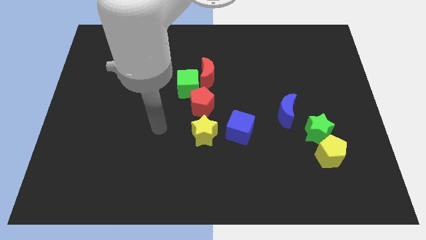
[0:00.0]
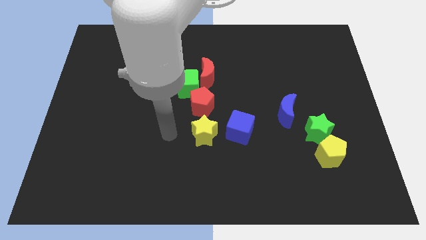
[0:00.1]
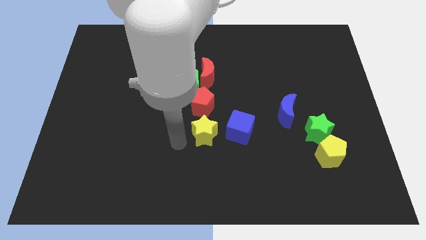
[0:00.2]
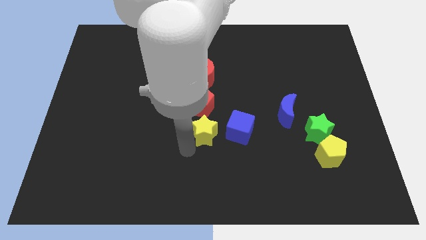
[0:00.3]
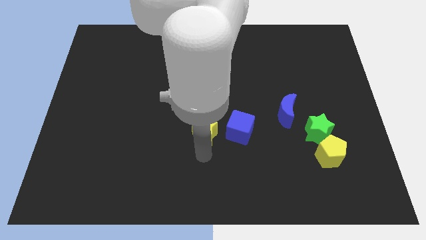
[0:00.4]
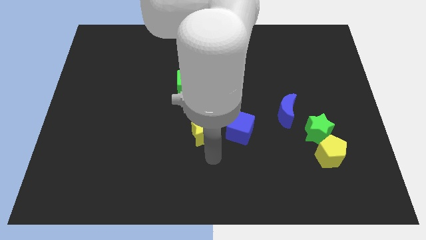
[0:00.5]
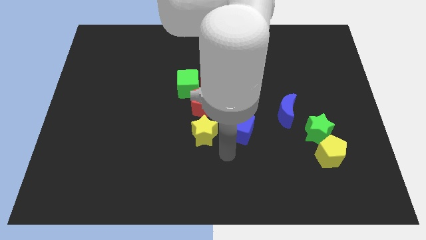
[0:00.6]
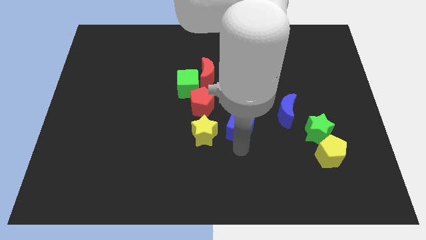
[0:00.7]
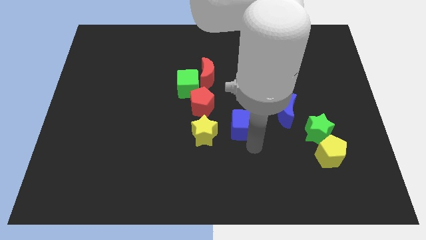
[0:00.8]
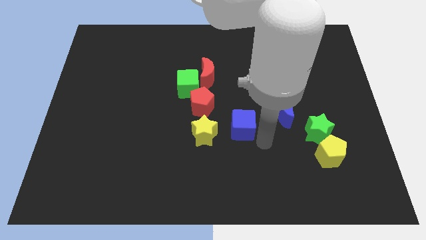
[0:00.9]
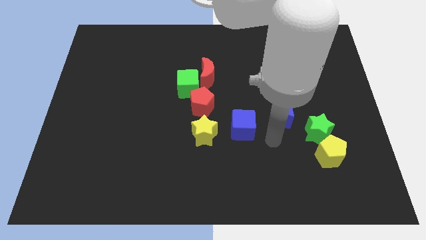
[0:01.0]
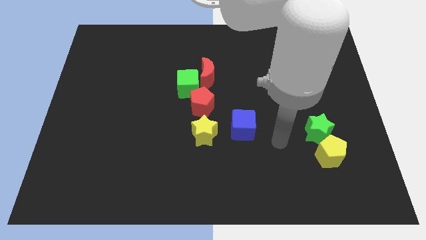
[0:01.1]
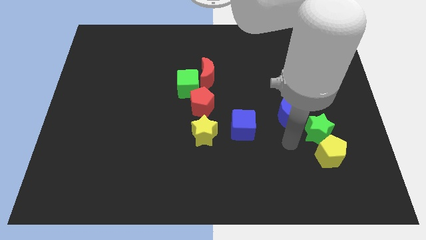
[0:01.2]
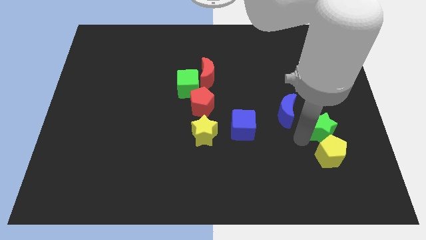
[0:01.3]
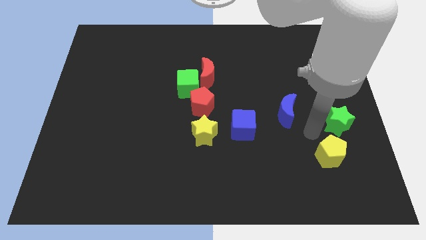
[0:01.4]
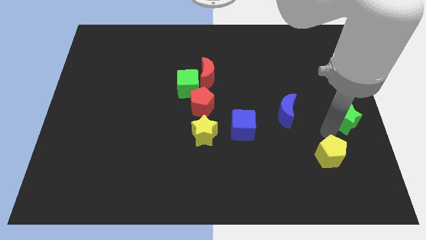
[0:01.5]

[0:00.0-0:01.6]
pull the yellow pentagon apart from the green star

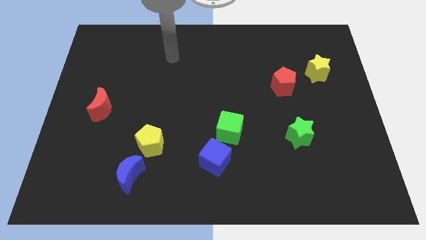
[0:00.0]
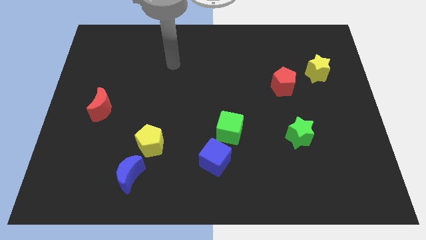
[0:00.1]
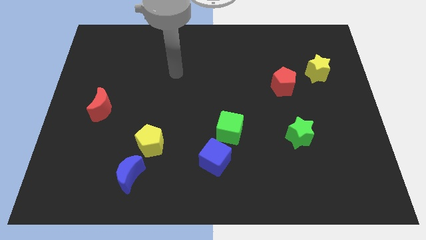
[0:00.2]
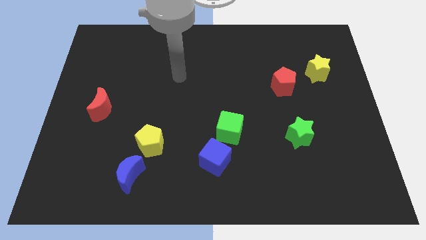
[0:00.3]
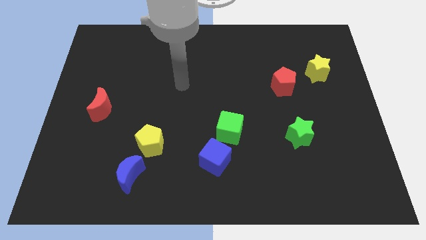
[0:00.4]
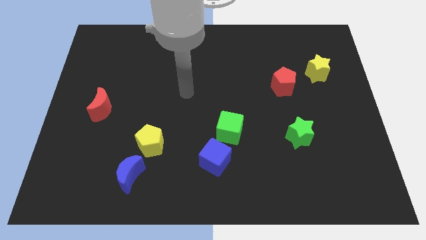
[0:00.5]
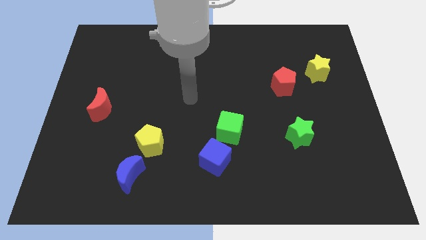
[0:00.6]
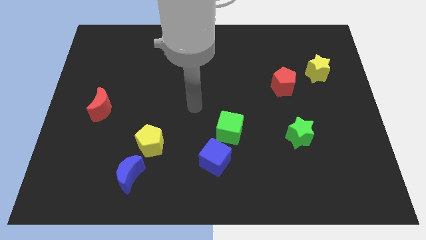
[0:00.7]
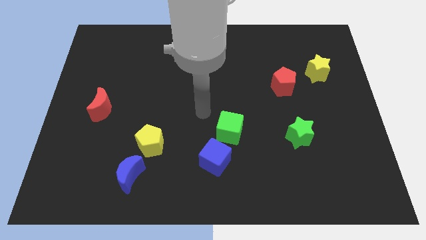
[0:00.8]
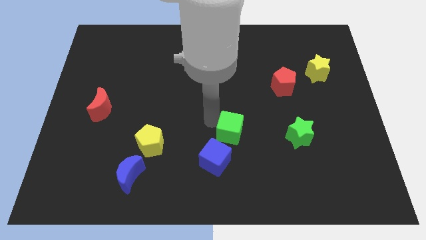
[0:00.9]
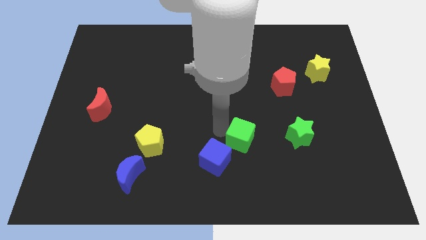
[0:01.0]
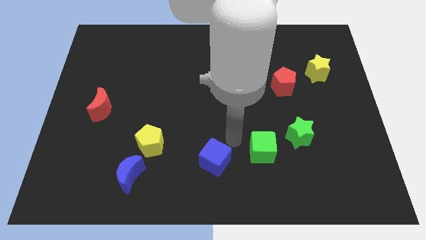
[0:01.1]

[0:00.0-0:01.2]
separate the blue cube from the green cube

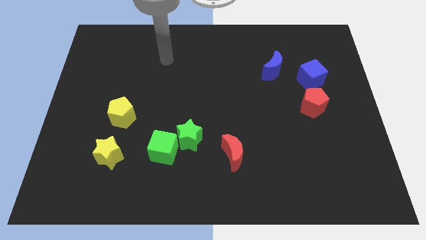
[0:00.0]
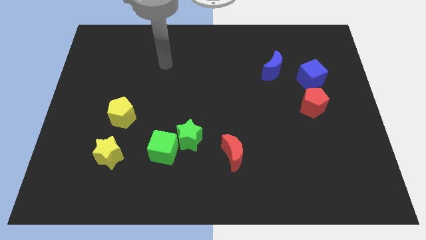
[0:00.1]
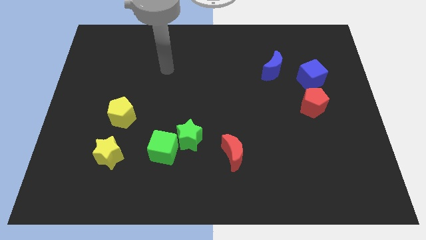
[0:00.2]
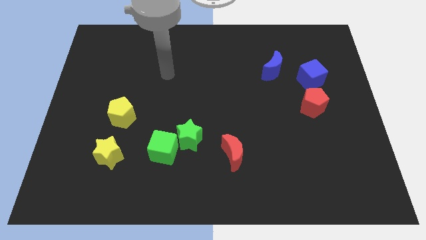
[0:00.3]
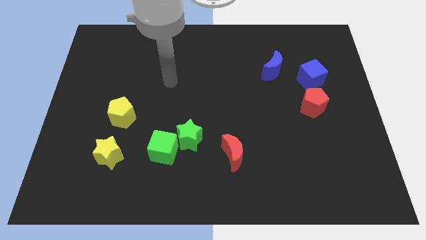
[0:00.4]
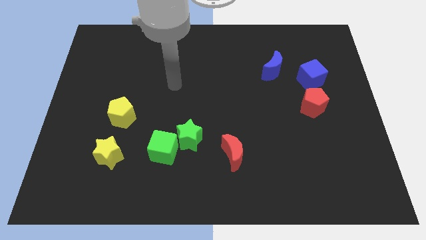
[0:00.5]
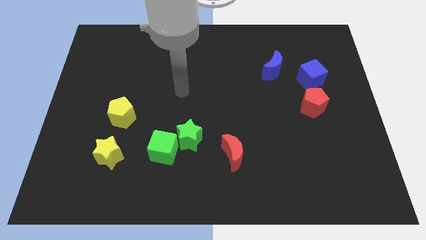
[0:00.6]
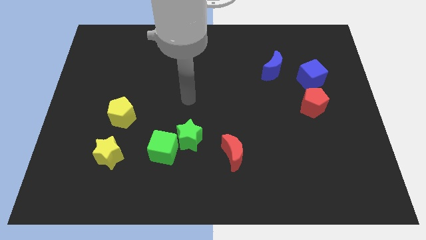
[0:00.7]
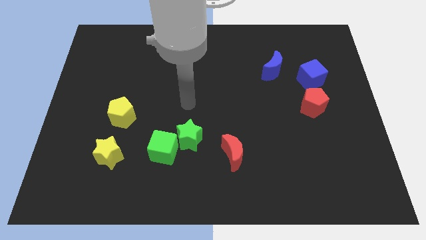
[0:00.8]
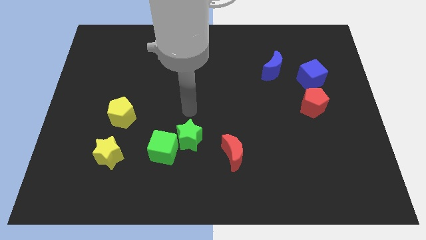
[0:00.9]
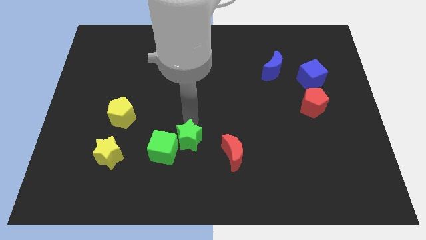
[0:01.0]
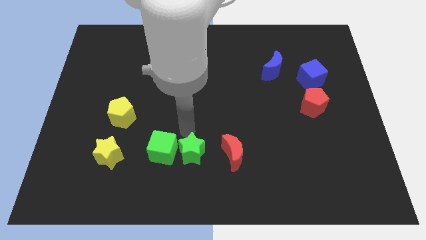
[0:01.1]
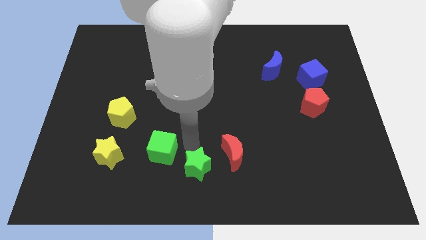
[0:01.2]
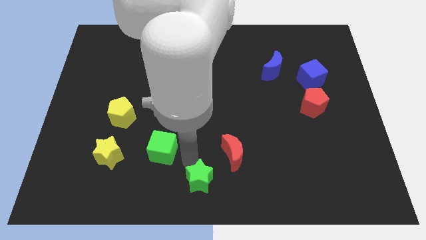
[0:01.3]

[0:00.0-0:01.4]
move the green cube away from the green star

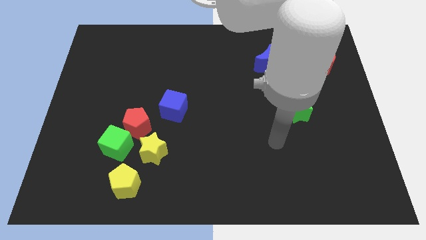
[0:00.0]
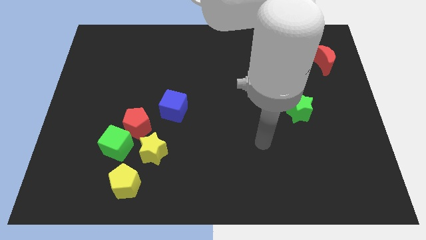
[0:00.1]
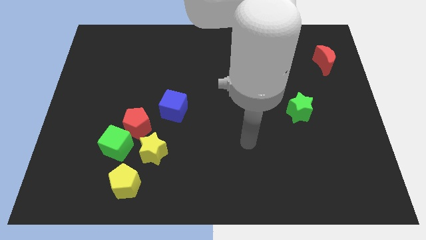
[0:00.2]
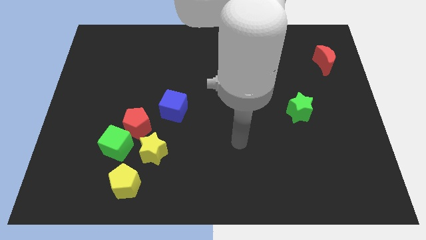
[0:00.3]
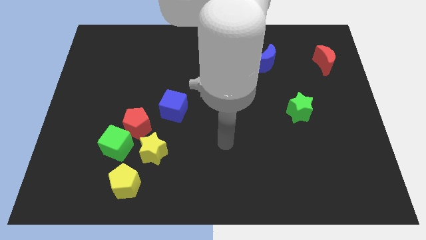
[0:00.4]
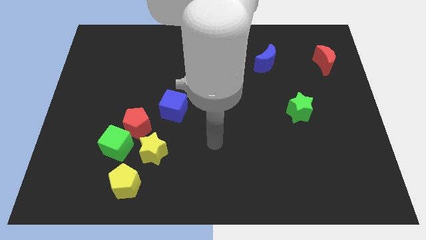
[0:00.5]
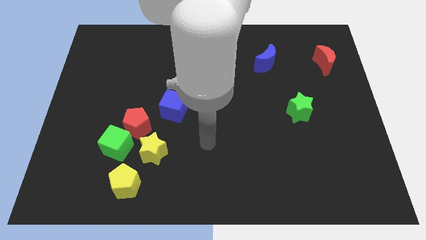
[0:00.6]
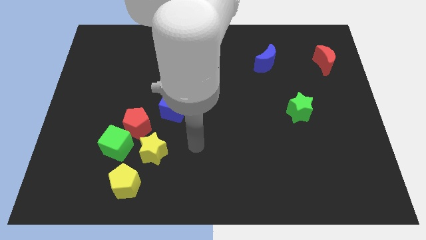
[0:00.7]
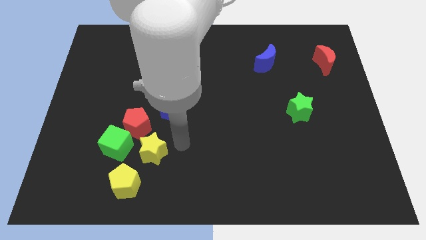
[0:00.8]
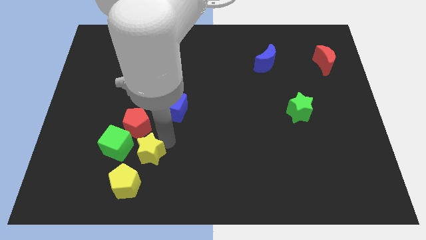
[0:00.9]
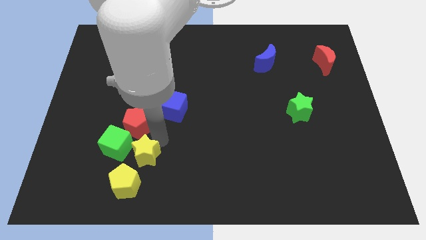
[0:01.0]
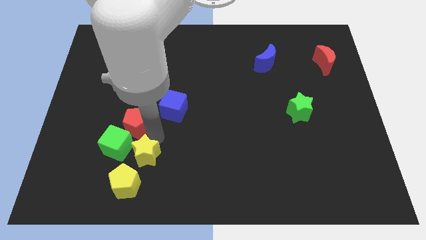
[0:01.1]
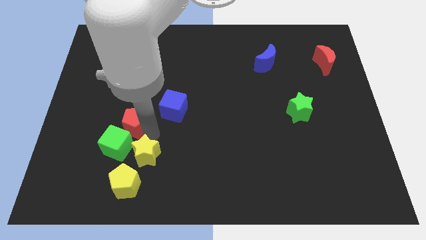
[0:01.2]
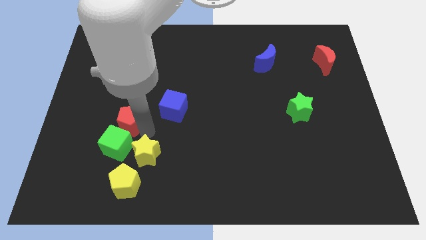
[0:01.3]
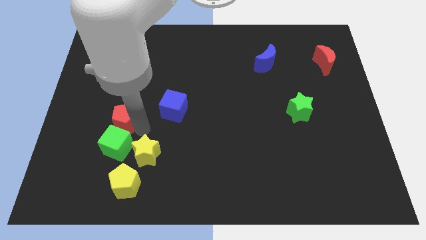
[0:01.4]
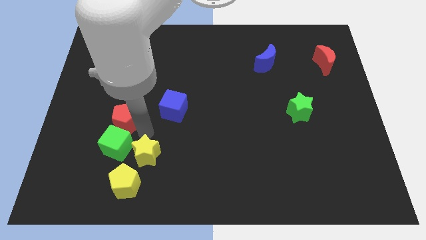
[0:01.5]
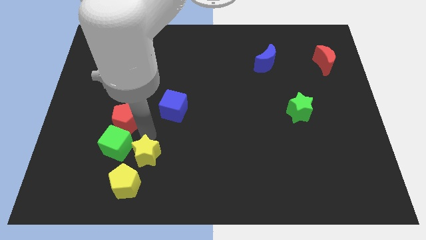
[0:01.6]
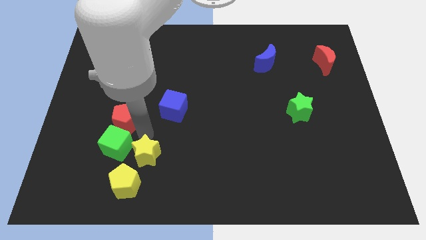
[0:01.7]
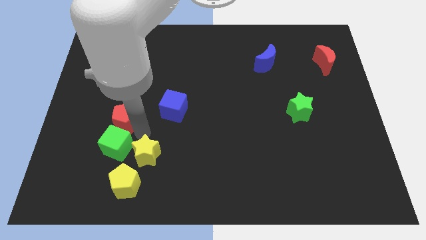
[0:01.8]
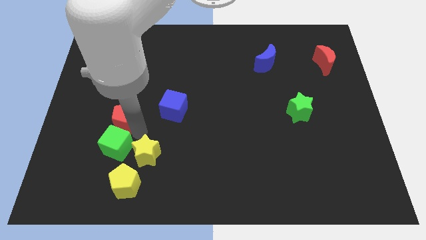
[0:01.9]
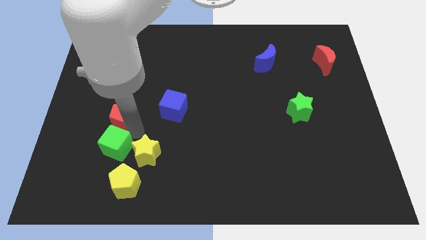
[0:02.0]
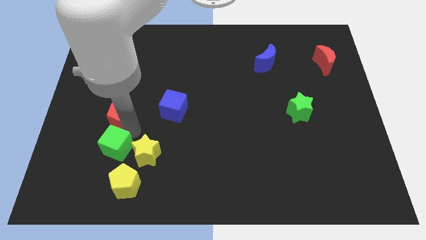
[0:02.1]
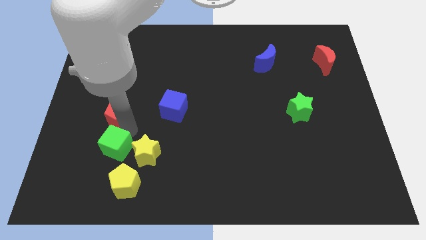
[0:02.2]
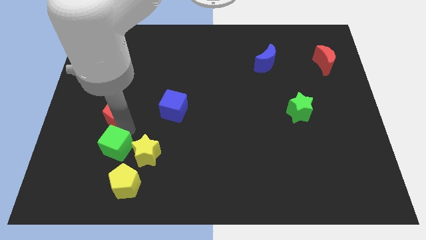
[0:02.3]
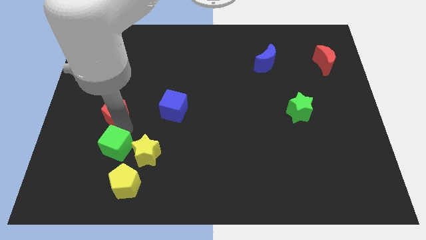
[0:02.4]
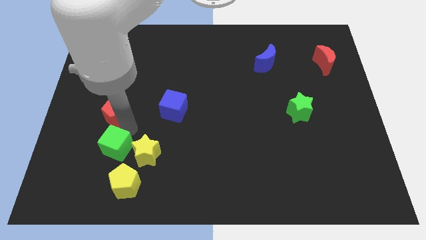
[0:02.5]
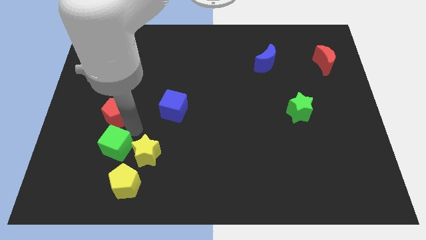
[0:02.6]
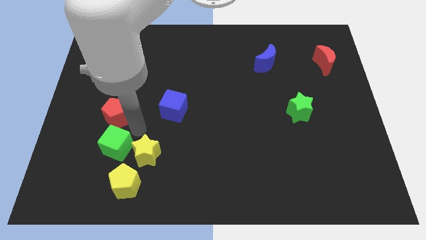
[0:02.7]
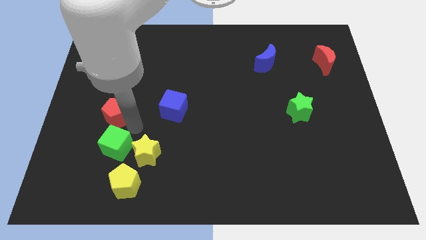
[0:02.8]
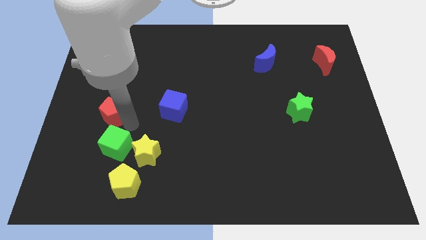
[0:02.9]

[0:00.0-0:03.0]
pull the red pentagon apart from the green cube, yellow star, and blue cube

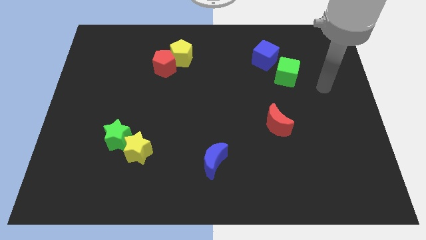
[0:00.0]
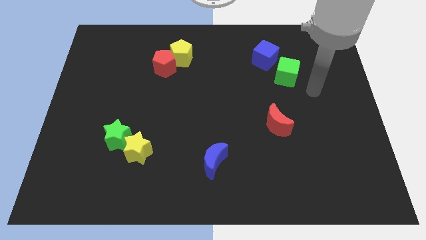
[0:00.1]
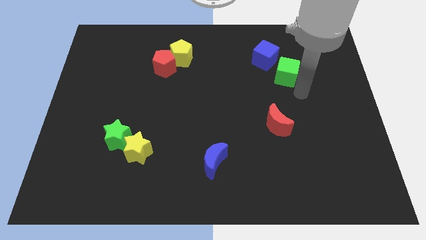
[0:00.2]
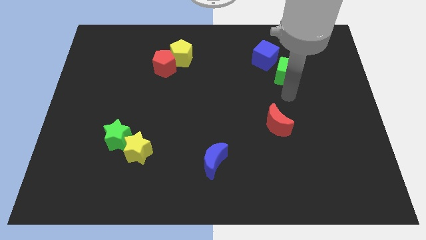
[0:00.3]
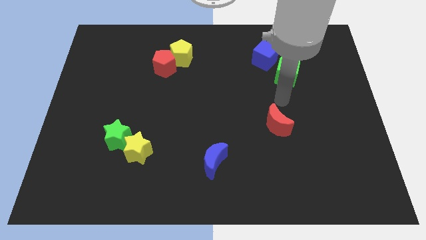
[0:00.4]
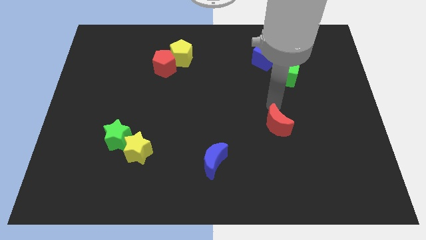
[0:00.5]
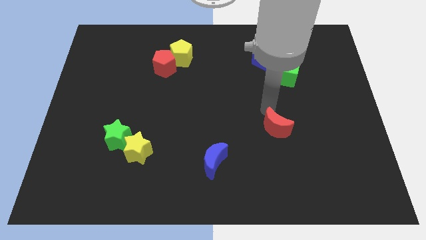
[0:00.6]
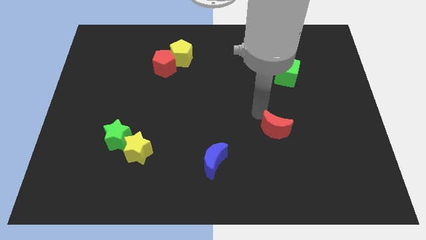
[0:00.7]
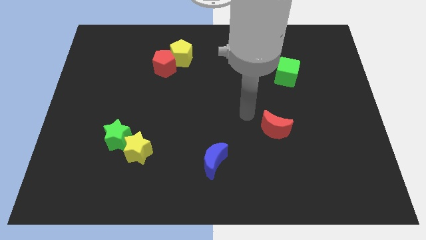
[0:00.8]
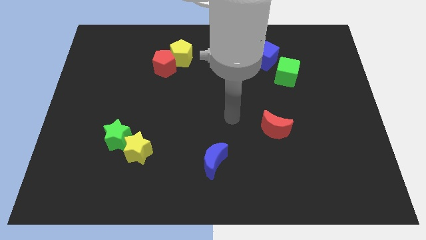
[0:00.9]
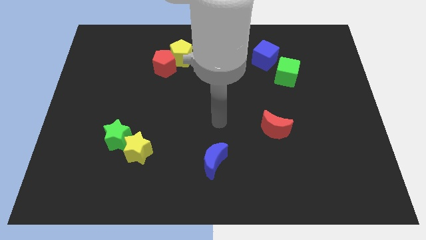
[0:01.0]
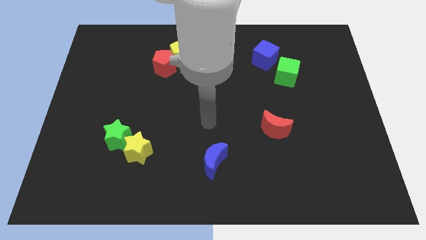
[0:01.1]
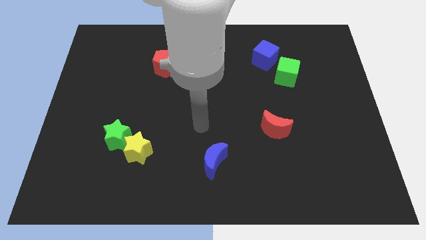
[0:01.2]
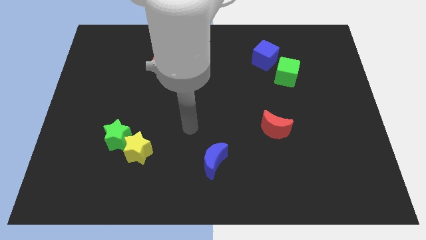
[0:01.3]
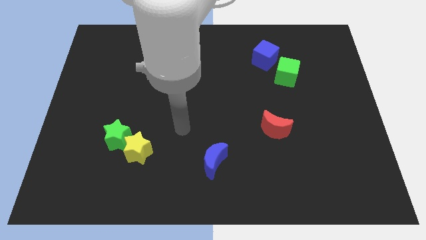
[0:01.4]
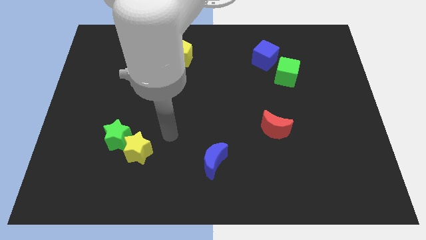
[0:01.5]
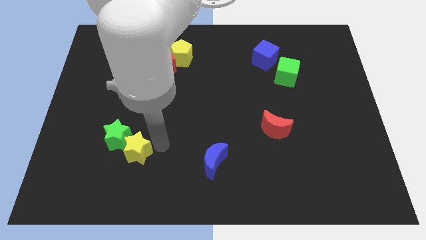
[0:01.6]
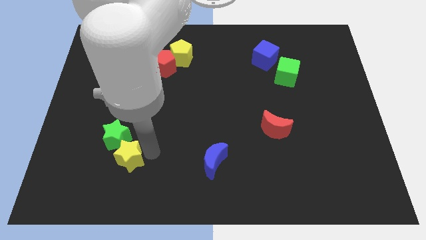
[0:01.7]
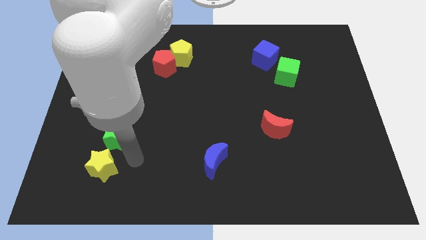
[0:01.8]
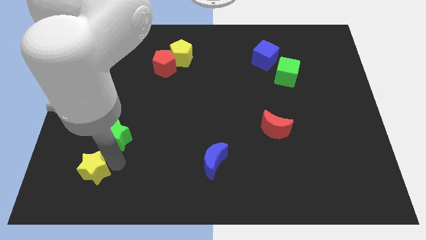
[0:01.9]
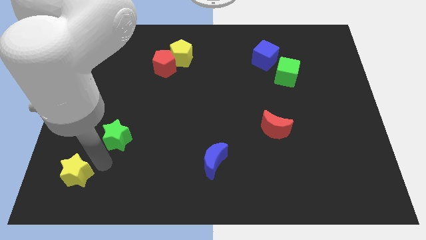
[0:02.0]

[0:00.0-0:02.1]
separate the green star from the yellow star
